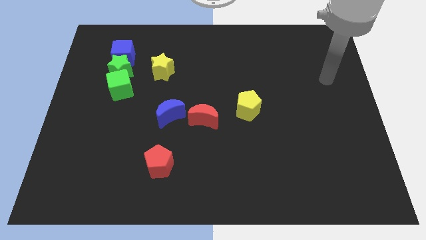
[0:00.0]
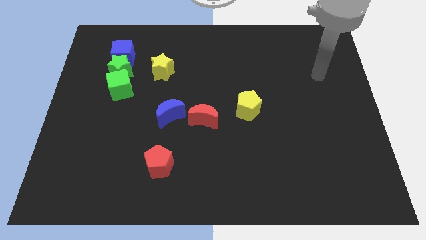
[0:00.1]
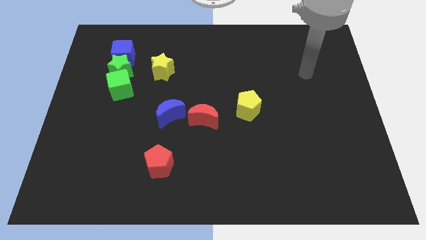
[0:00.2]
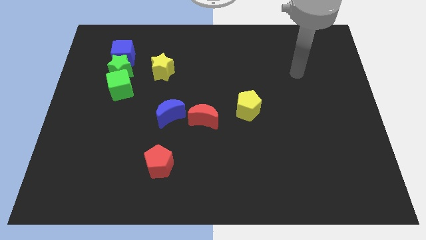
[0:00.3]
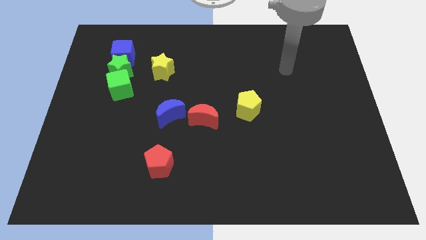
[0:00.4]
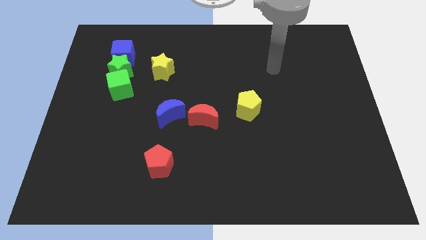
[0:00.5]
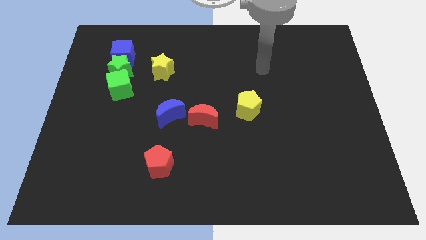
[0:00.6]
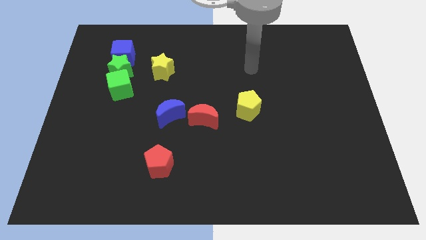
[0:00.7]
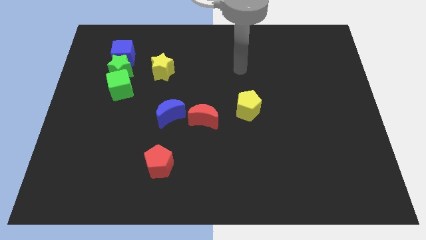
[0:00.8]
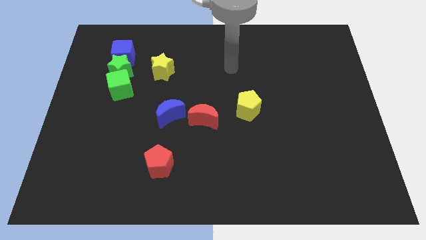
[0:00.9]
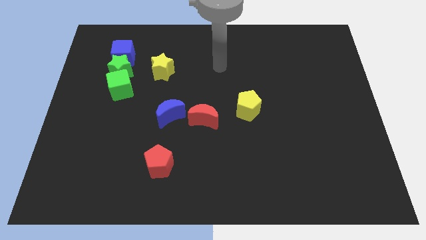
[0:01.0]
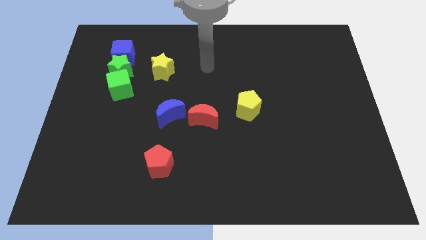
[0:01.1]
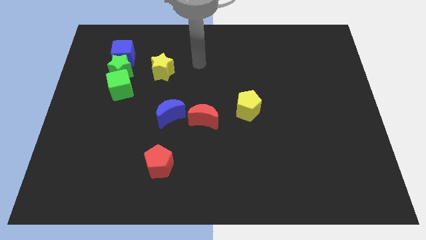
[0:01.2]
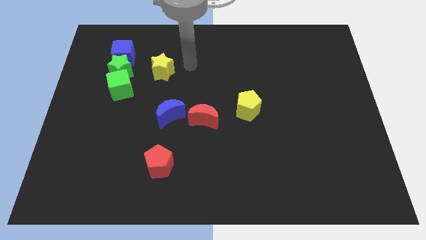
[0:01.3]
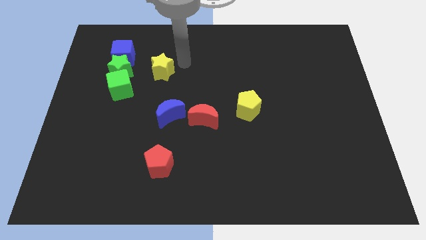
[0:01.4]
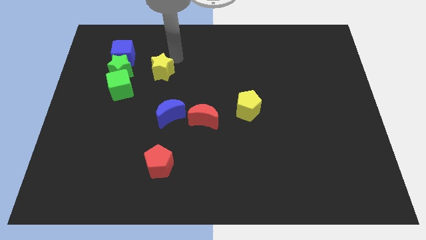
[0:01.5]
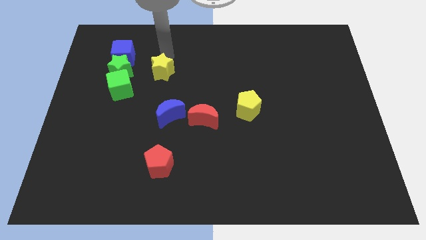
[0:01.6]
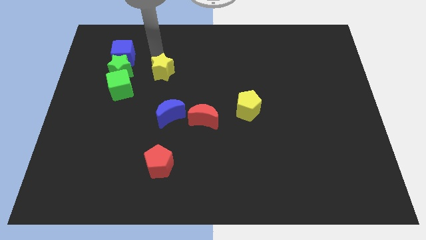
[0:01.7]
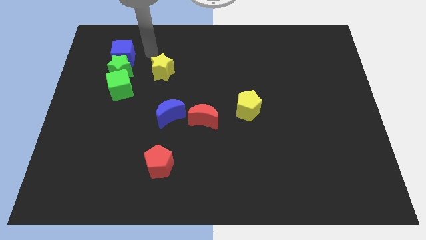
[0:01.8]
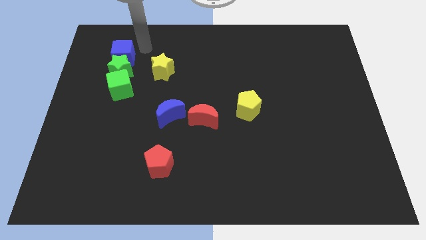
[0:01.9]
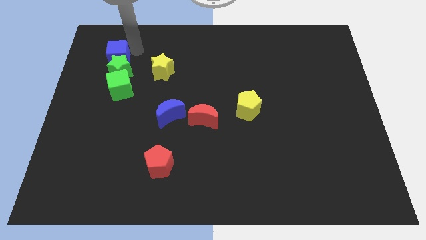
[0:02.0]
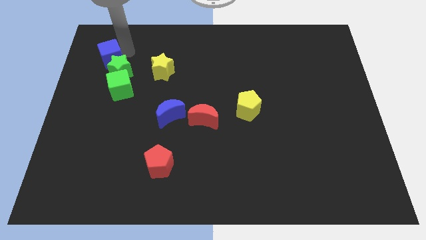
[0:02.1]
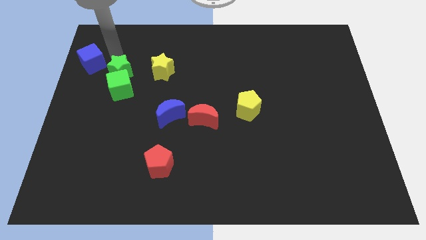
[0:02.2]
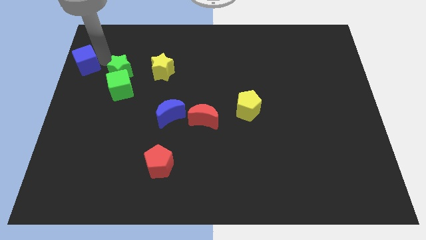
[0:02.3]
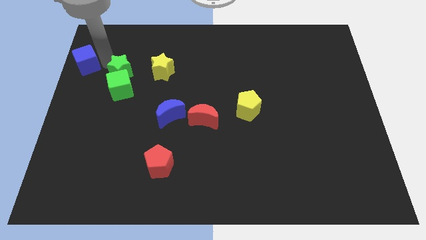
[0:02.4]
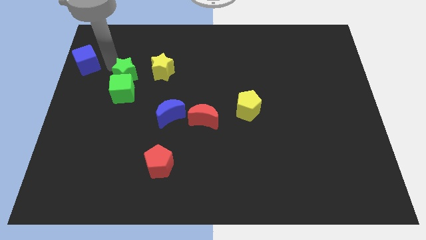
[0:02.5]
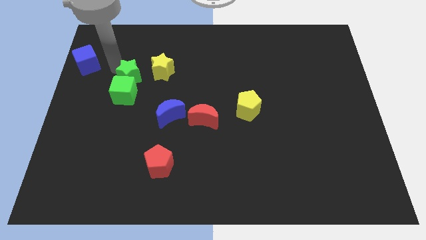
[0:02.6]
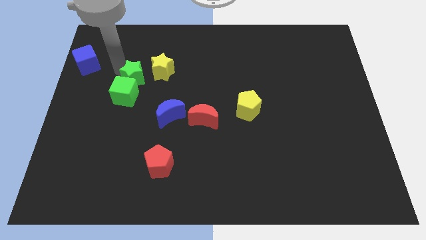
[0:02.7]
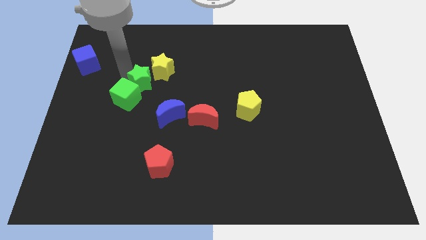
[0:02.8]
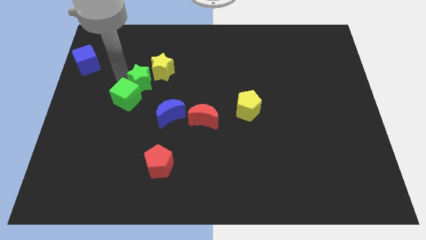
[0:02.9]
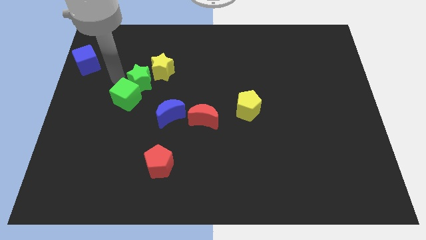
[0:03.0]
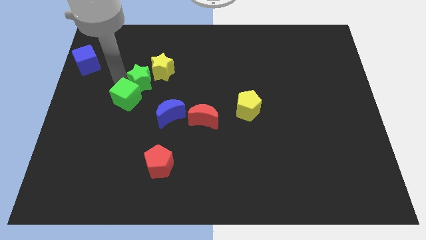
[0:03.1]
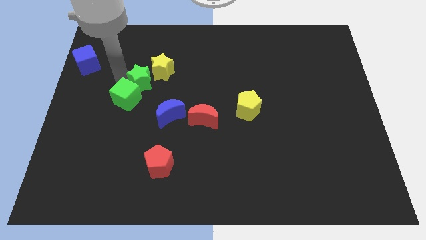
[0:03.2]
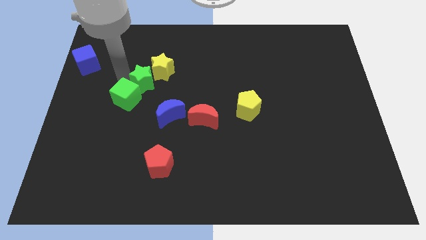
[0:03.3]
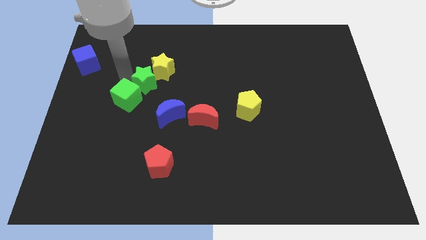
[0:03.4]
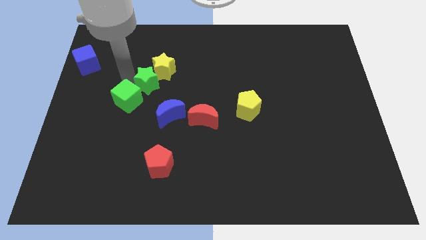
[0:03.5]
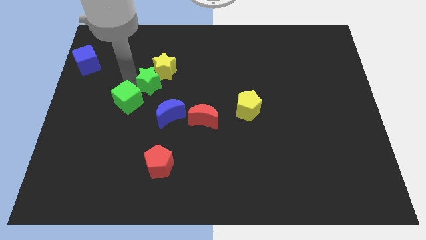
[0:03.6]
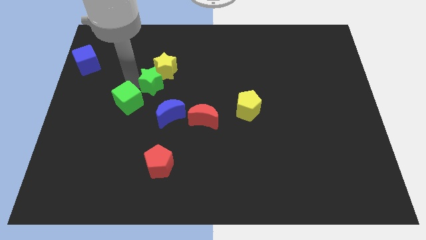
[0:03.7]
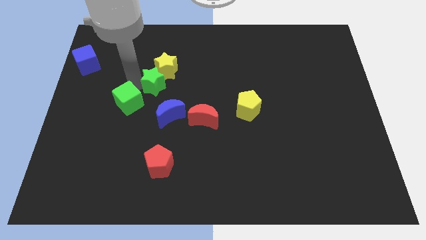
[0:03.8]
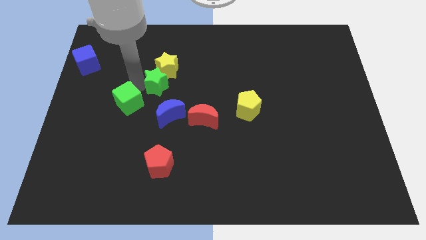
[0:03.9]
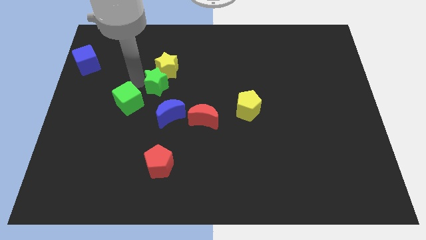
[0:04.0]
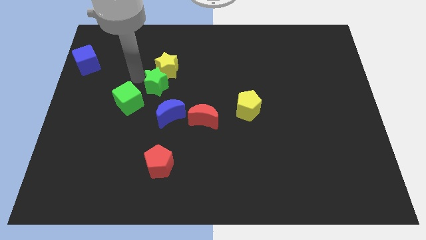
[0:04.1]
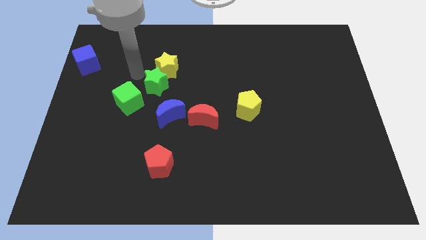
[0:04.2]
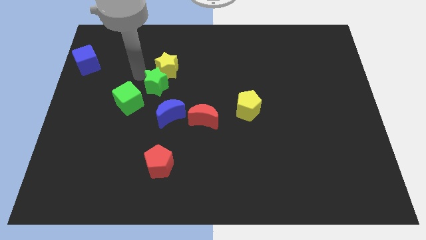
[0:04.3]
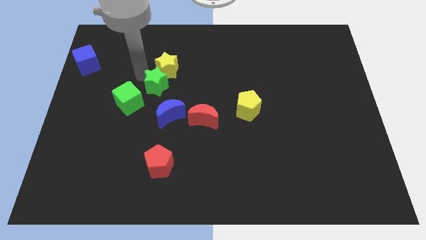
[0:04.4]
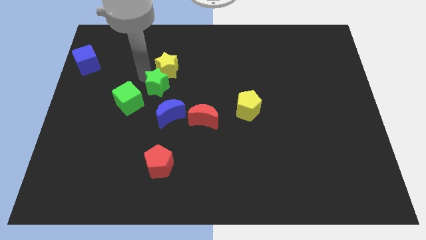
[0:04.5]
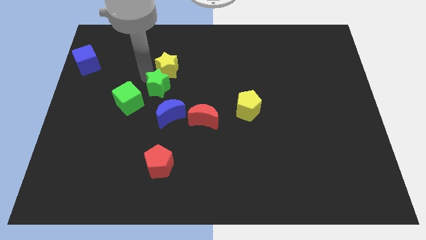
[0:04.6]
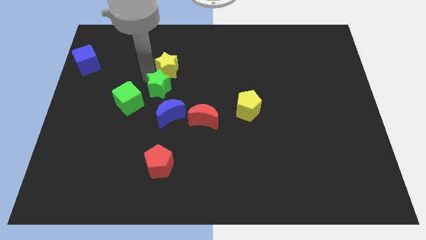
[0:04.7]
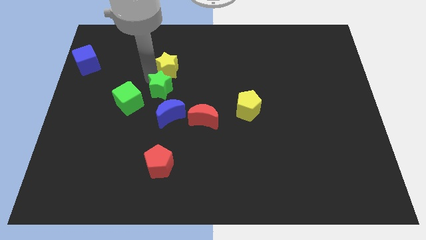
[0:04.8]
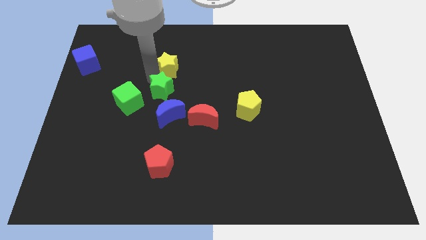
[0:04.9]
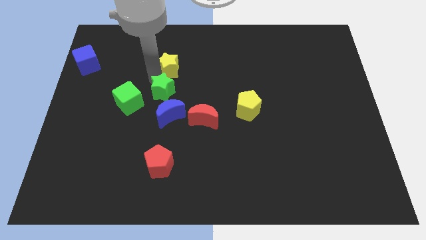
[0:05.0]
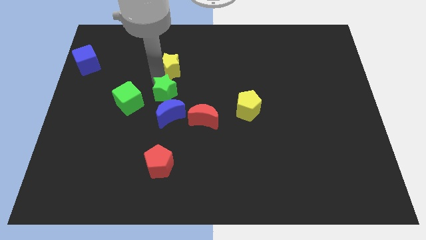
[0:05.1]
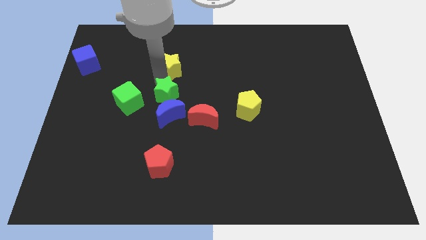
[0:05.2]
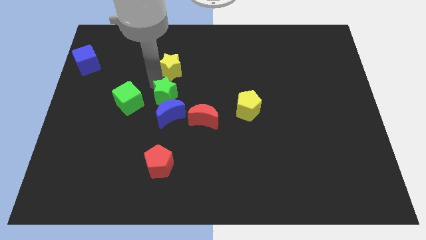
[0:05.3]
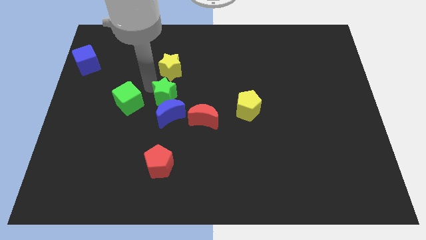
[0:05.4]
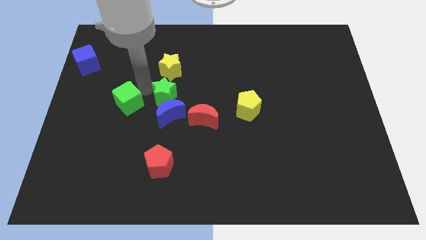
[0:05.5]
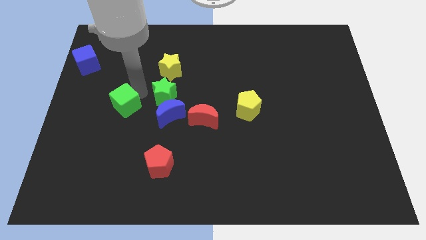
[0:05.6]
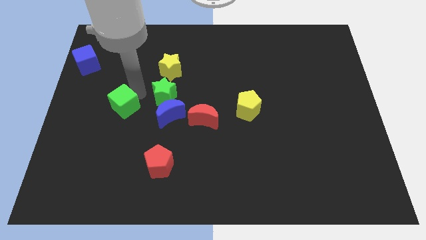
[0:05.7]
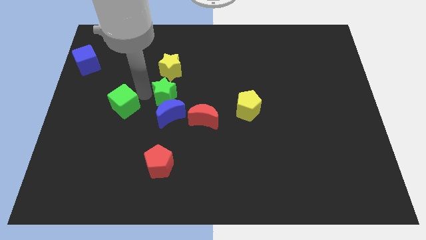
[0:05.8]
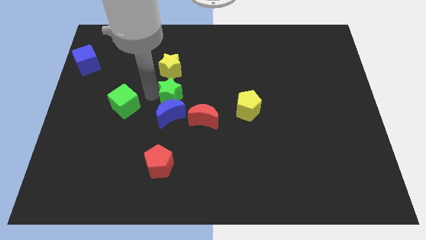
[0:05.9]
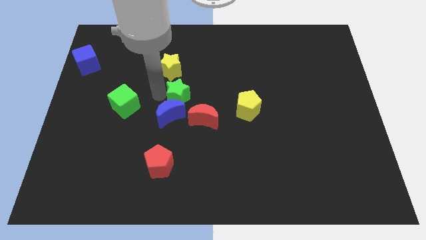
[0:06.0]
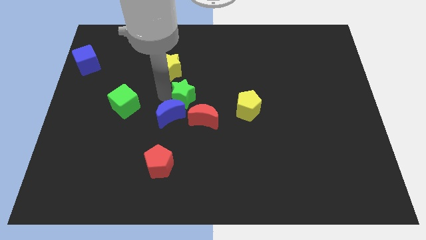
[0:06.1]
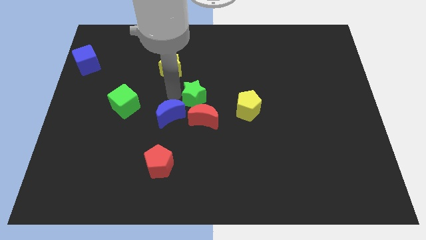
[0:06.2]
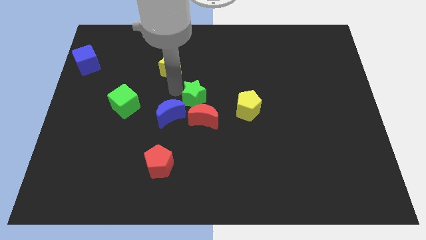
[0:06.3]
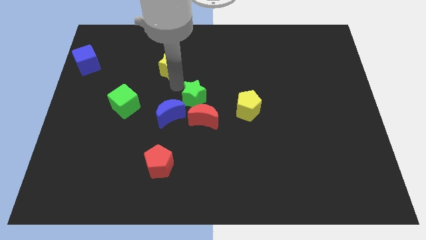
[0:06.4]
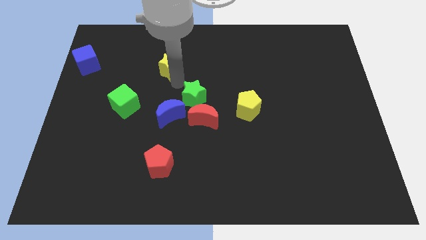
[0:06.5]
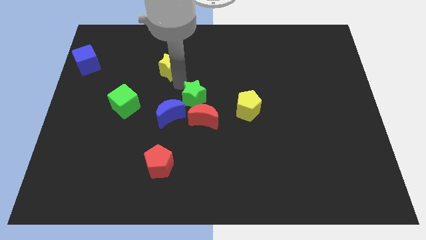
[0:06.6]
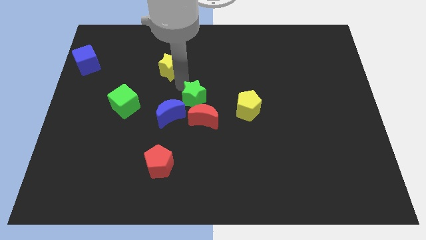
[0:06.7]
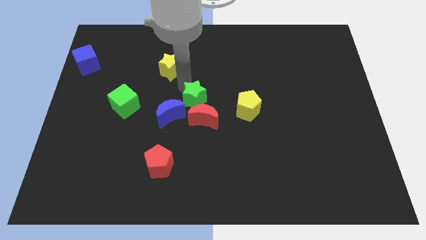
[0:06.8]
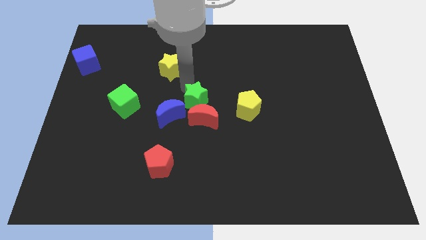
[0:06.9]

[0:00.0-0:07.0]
push the green star to the right of the blue moon

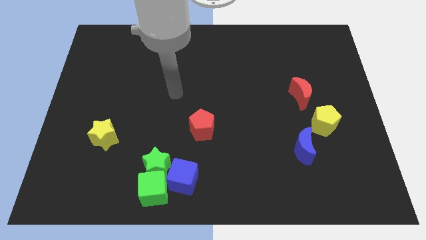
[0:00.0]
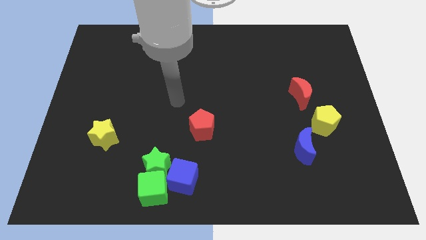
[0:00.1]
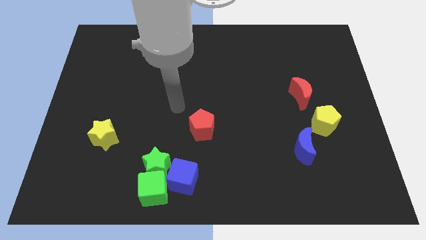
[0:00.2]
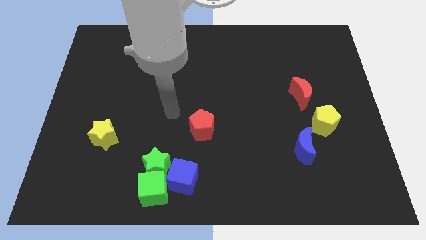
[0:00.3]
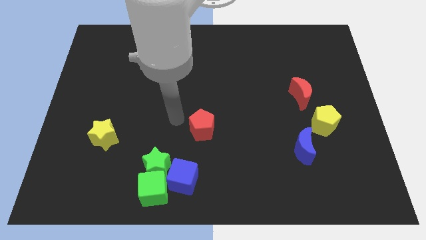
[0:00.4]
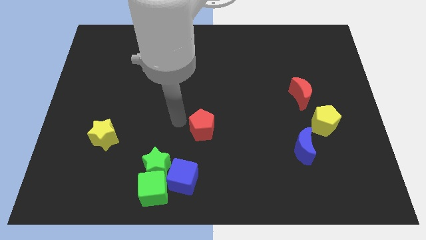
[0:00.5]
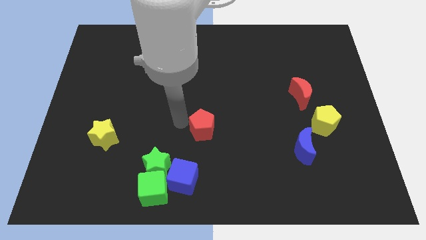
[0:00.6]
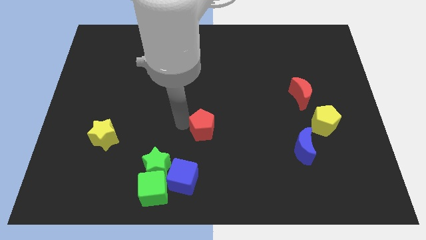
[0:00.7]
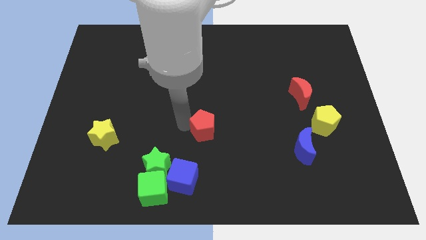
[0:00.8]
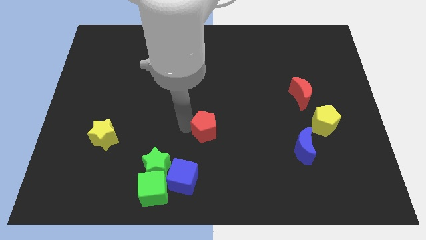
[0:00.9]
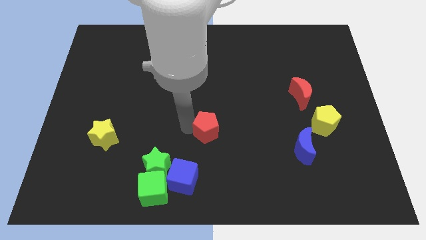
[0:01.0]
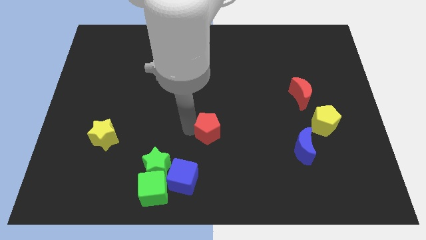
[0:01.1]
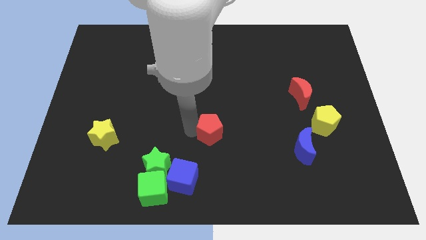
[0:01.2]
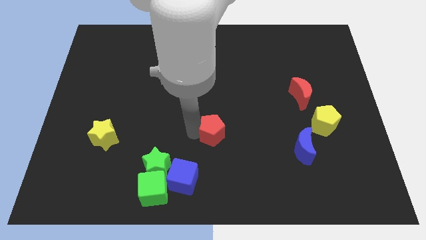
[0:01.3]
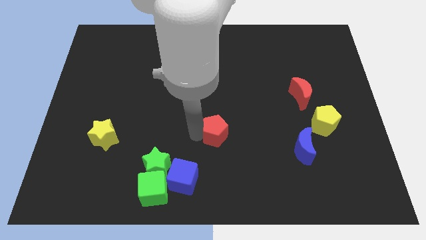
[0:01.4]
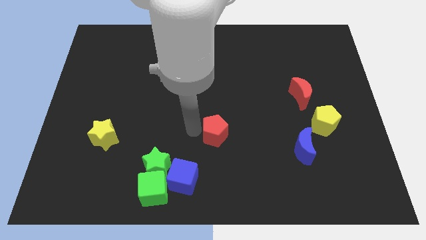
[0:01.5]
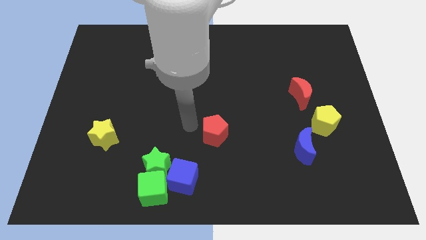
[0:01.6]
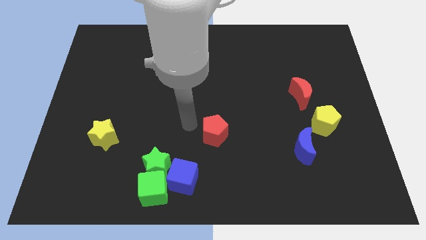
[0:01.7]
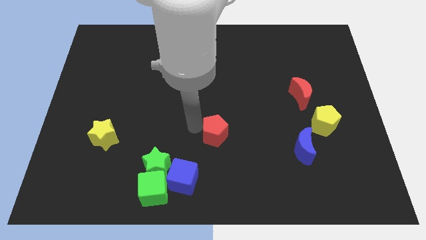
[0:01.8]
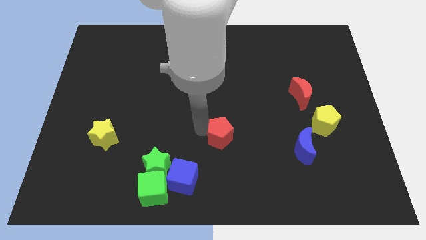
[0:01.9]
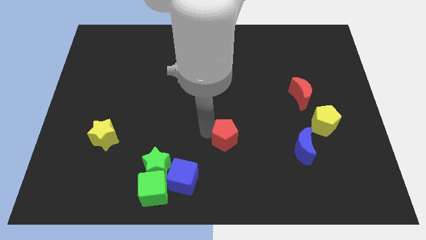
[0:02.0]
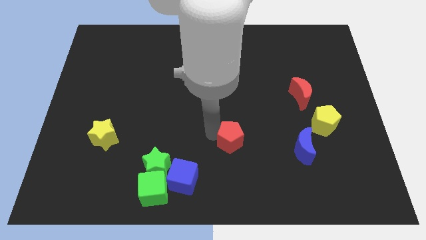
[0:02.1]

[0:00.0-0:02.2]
slide the red pentagon to the left side of the blue moon
